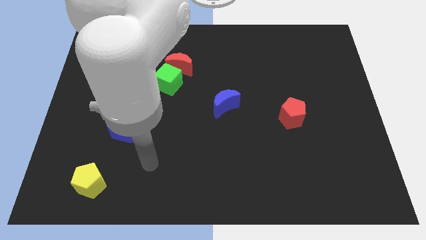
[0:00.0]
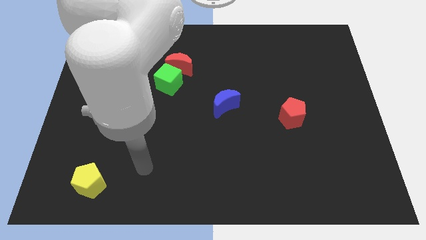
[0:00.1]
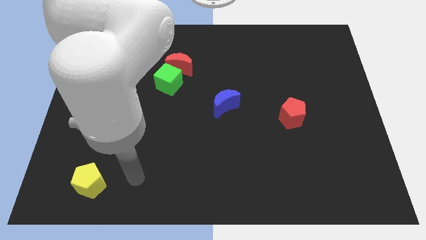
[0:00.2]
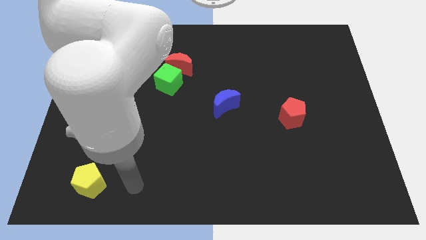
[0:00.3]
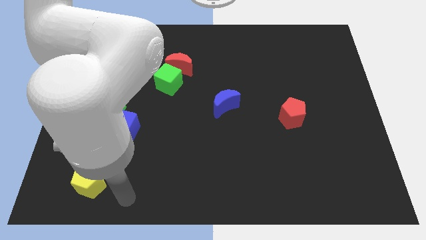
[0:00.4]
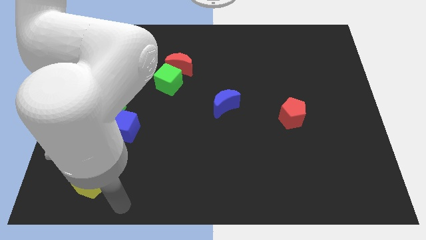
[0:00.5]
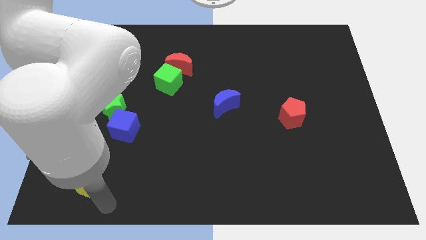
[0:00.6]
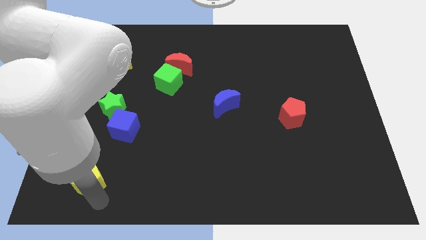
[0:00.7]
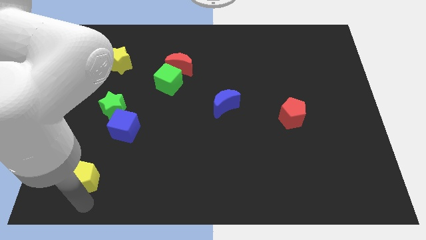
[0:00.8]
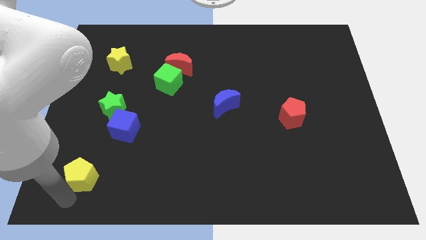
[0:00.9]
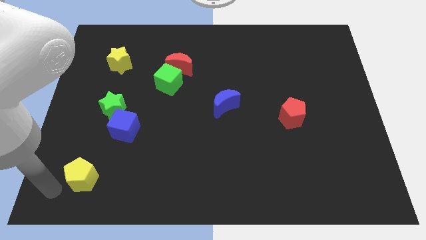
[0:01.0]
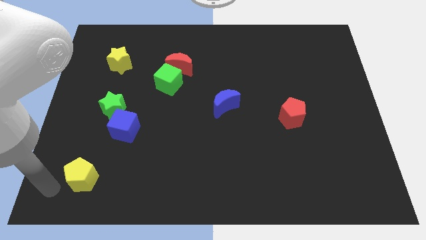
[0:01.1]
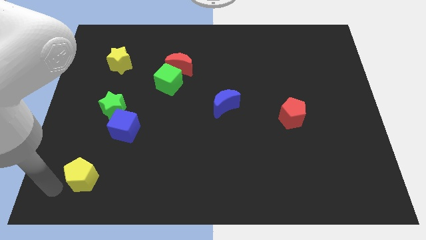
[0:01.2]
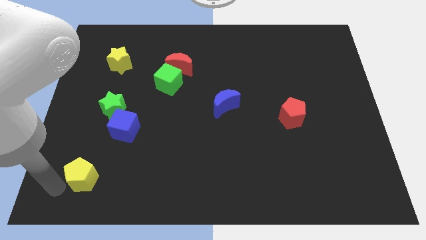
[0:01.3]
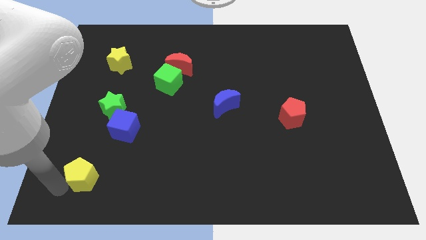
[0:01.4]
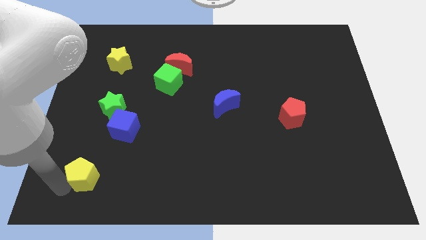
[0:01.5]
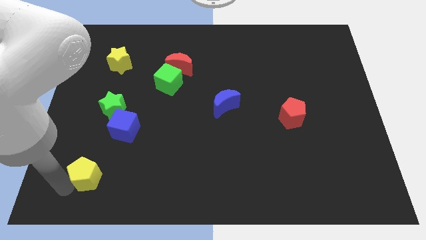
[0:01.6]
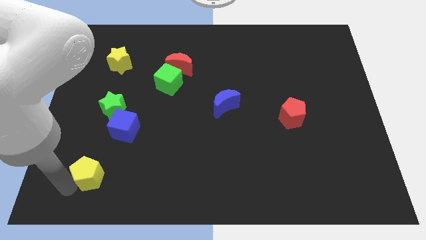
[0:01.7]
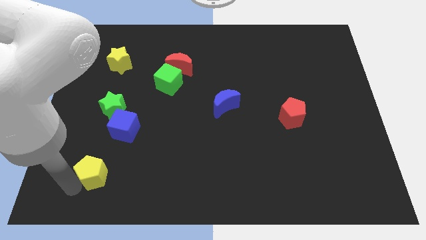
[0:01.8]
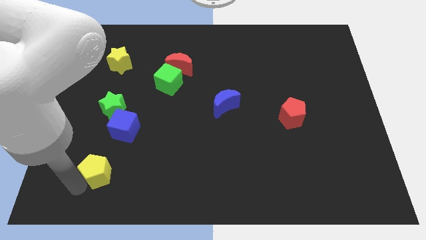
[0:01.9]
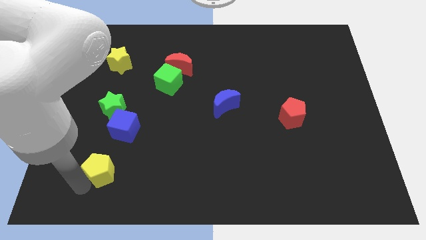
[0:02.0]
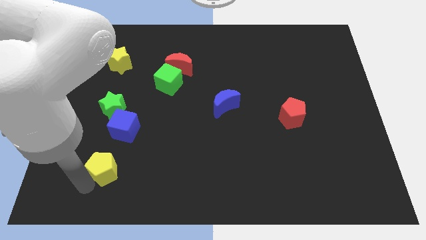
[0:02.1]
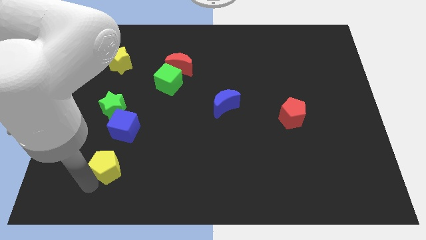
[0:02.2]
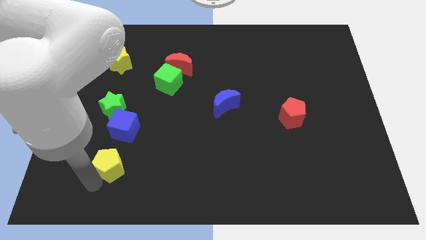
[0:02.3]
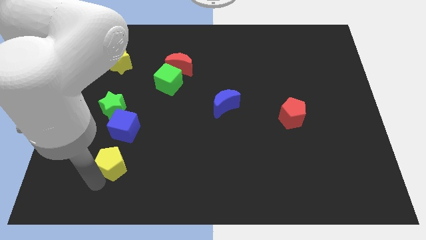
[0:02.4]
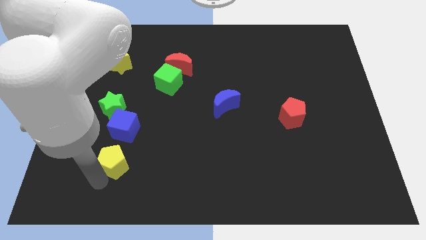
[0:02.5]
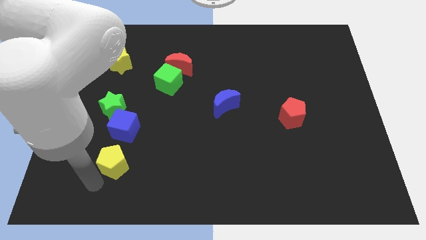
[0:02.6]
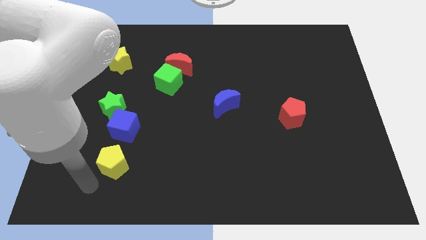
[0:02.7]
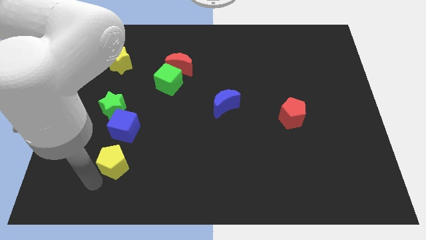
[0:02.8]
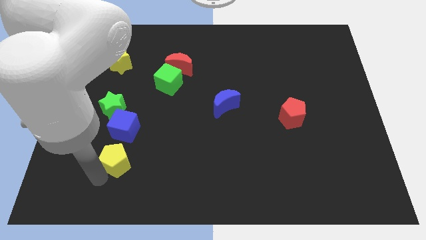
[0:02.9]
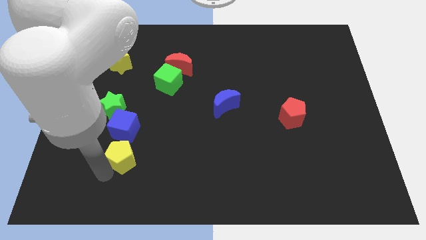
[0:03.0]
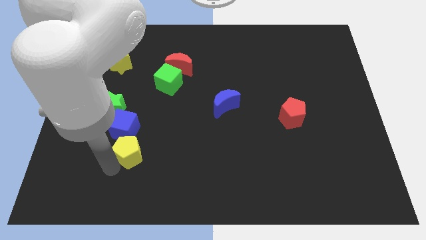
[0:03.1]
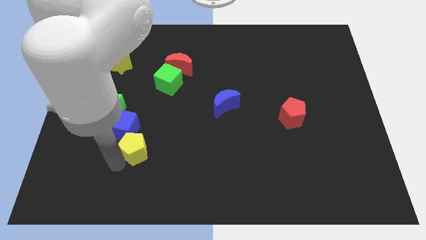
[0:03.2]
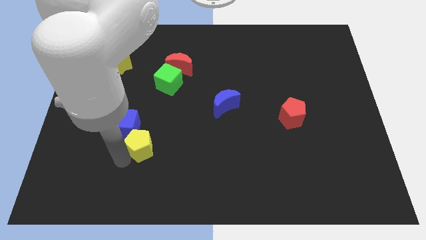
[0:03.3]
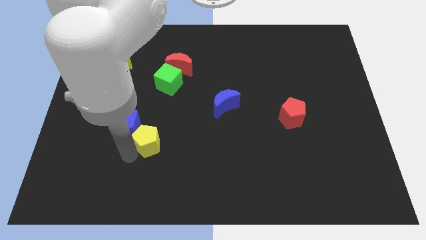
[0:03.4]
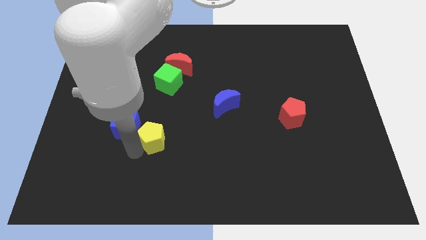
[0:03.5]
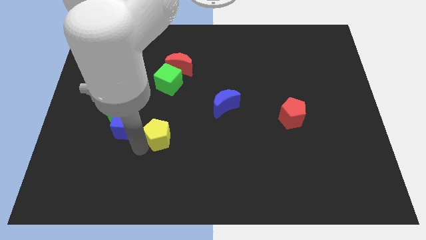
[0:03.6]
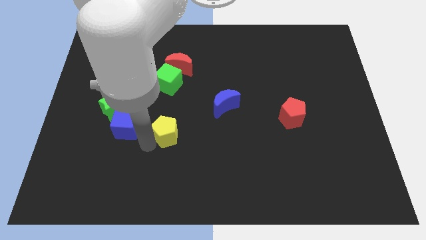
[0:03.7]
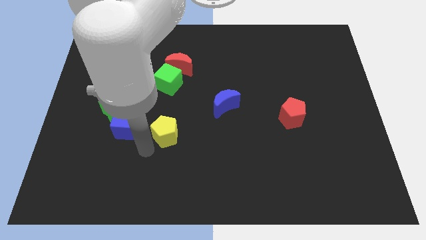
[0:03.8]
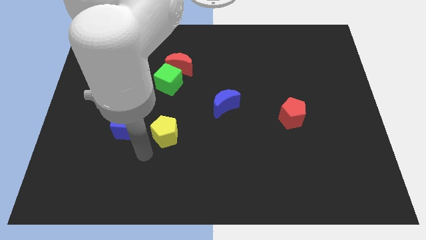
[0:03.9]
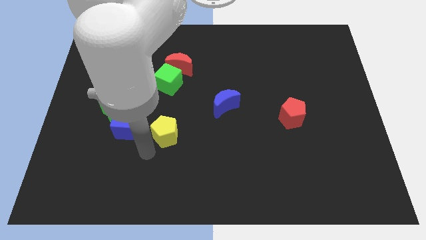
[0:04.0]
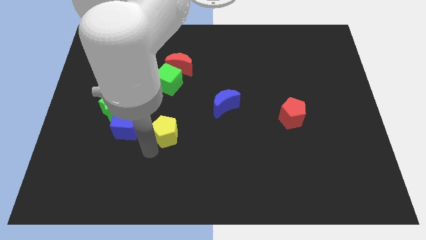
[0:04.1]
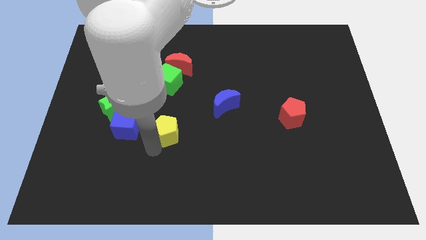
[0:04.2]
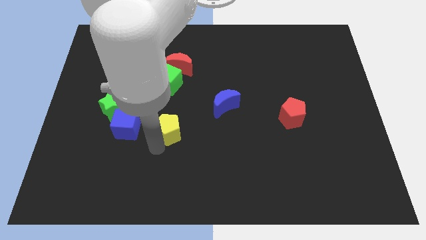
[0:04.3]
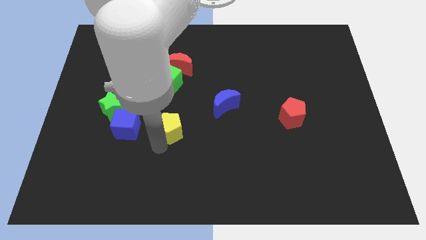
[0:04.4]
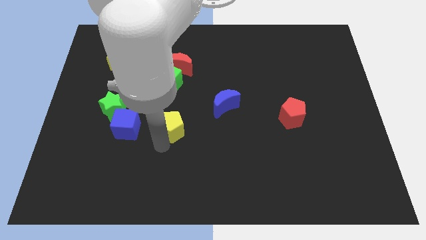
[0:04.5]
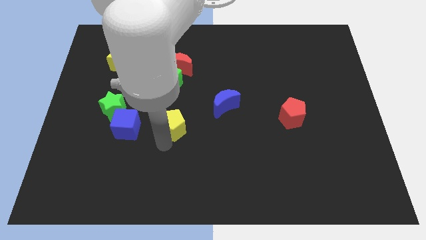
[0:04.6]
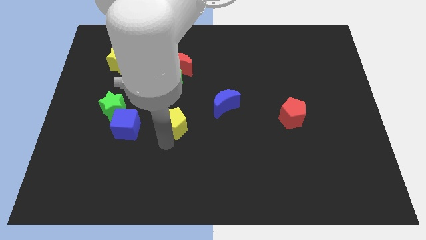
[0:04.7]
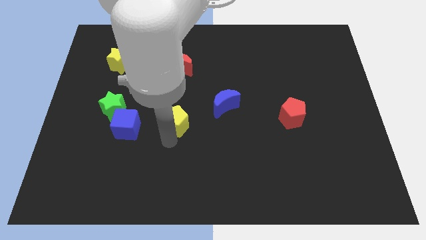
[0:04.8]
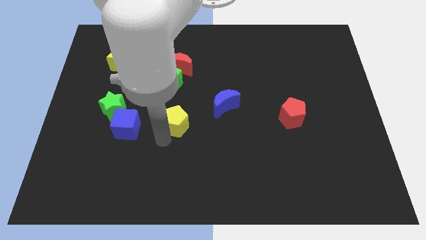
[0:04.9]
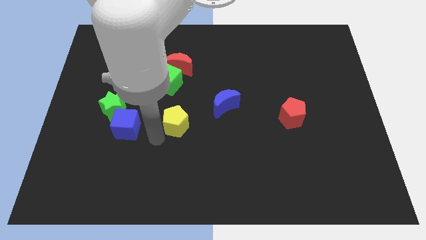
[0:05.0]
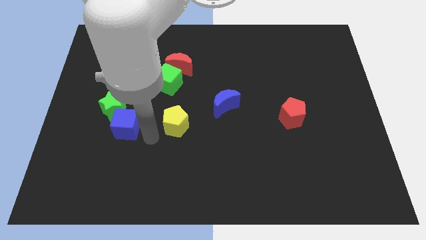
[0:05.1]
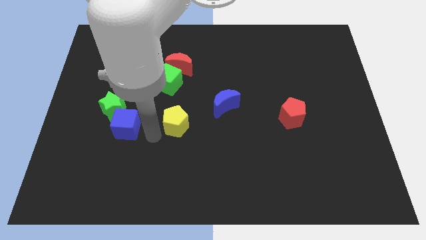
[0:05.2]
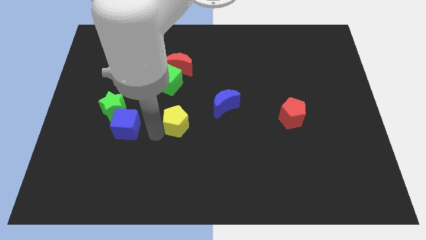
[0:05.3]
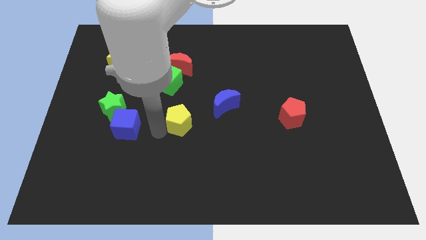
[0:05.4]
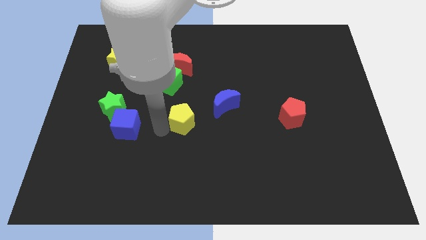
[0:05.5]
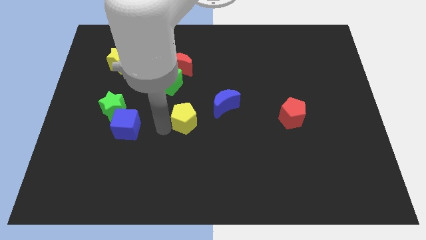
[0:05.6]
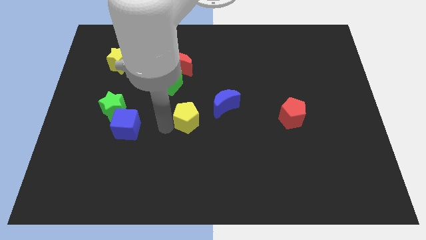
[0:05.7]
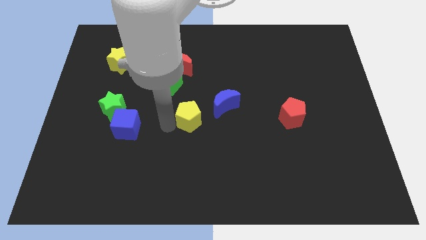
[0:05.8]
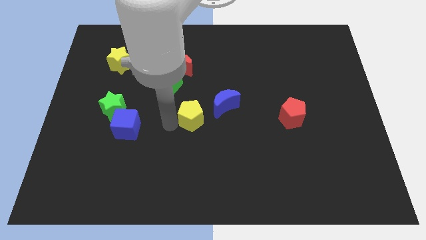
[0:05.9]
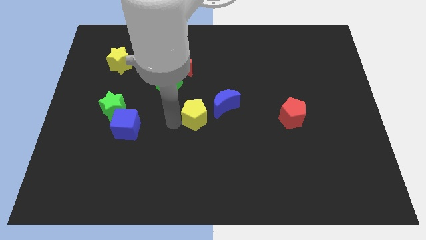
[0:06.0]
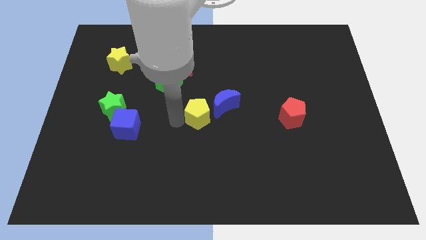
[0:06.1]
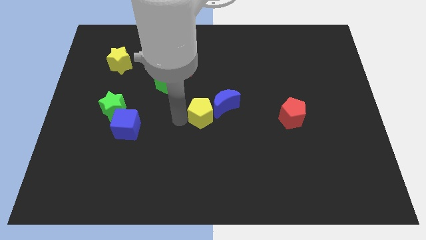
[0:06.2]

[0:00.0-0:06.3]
push the yellow pentagon towards the blue moon

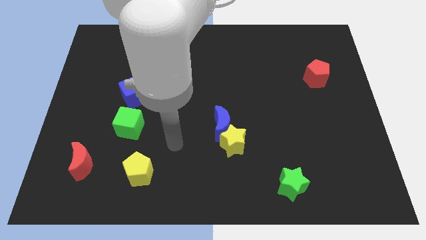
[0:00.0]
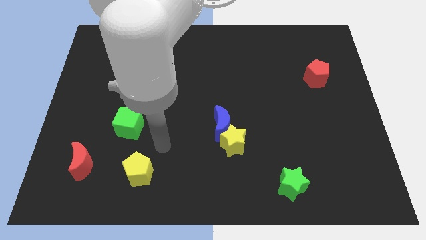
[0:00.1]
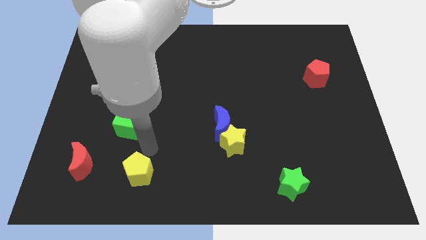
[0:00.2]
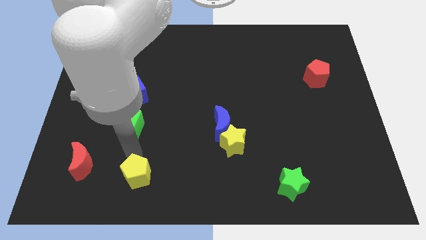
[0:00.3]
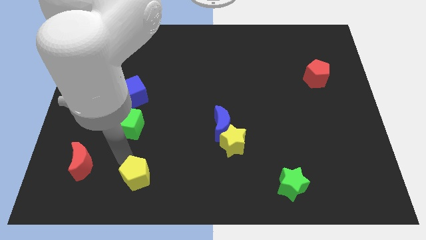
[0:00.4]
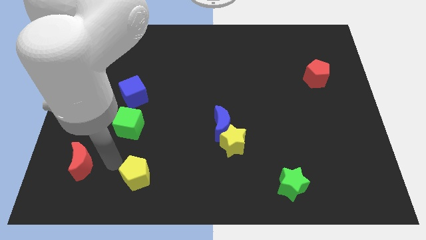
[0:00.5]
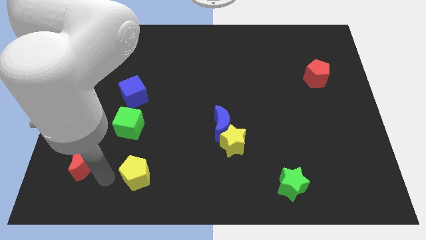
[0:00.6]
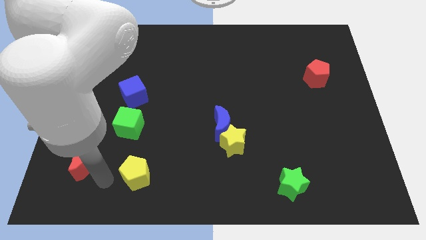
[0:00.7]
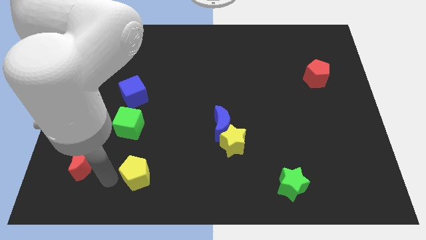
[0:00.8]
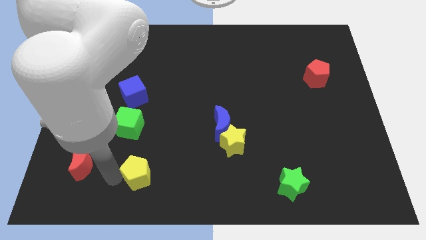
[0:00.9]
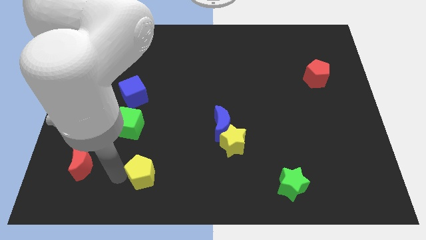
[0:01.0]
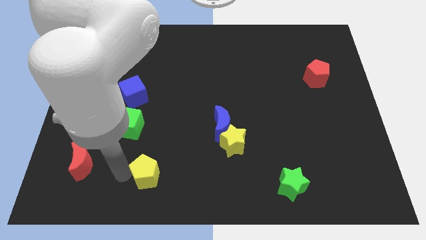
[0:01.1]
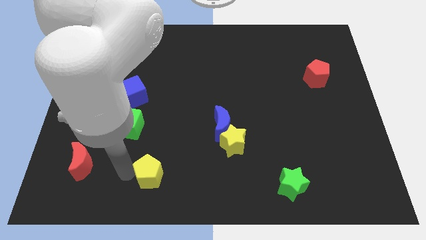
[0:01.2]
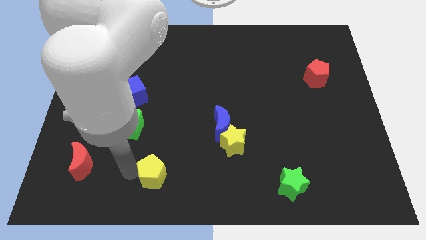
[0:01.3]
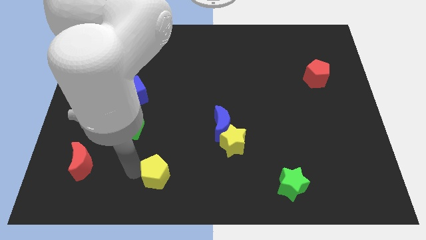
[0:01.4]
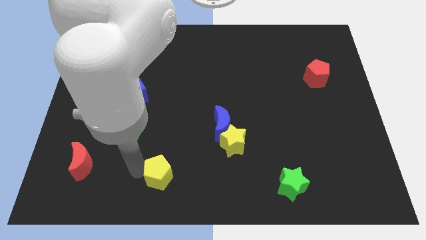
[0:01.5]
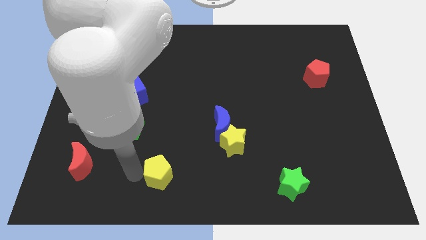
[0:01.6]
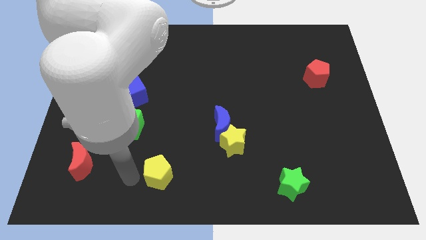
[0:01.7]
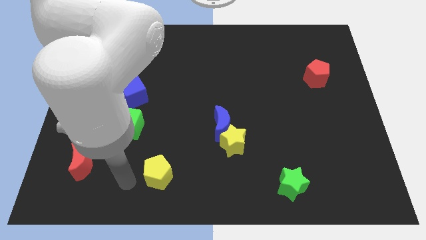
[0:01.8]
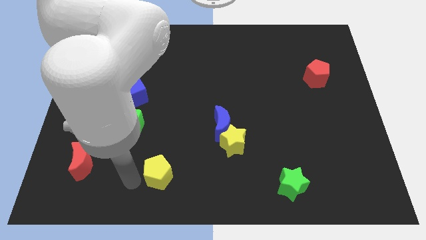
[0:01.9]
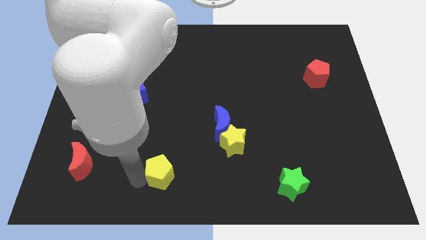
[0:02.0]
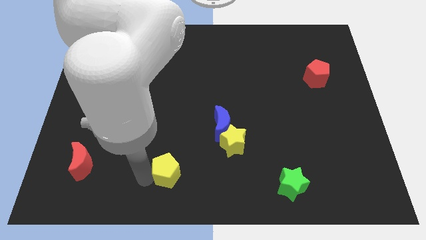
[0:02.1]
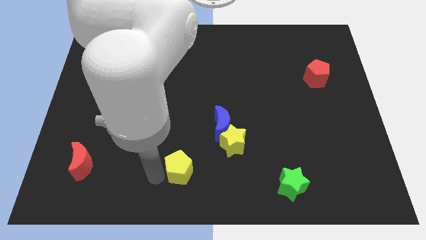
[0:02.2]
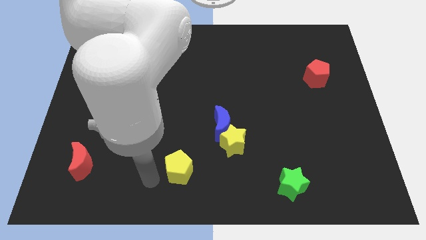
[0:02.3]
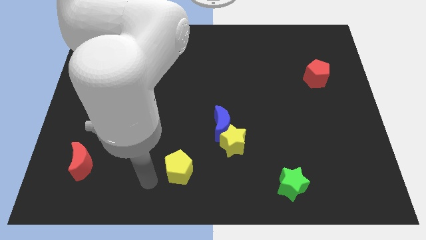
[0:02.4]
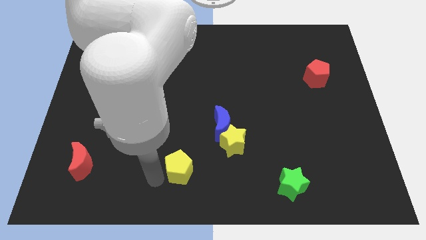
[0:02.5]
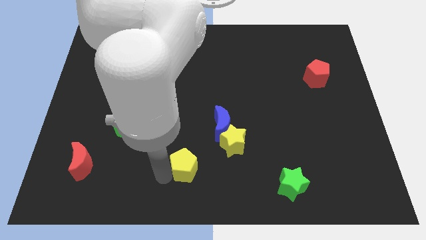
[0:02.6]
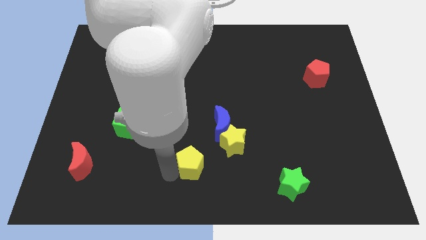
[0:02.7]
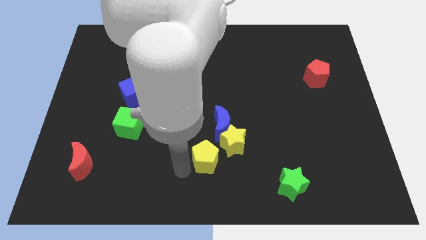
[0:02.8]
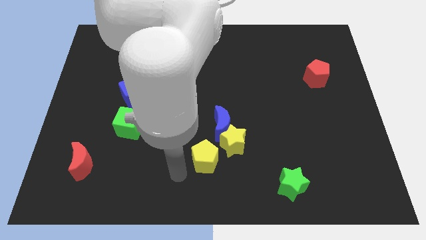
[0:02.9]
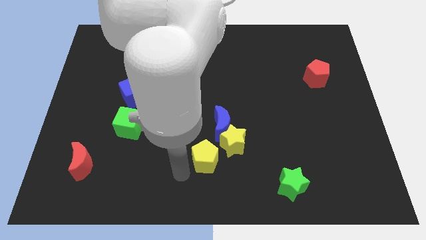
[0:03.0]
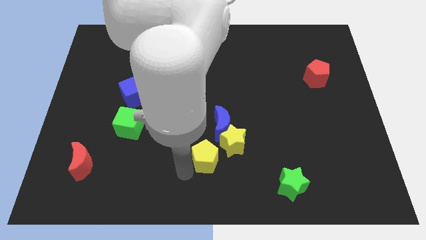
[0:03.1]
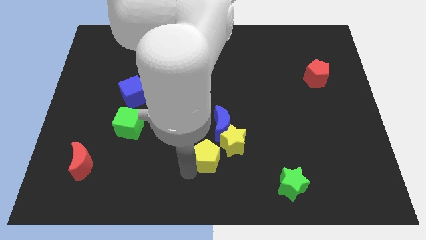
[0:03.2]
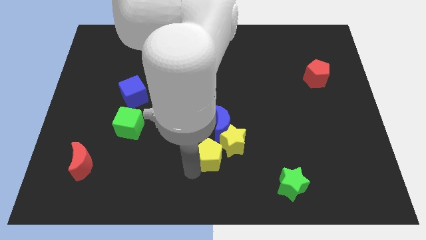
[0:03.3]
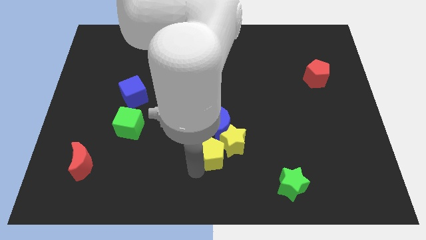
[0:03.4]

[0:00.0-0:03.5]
push the yellow pentagon towards the yellow star
